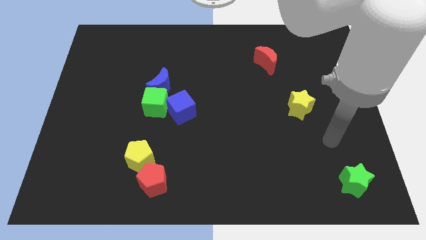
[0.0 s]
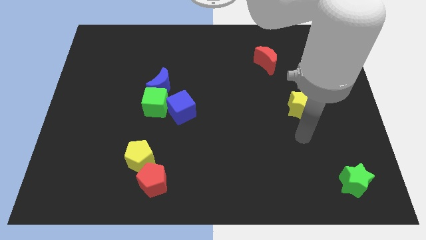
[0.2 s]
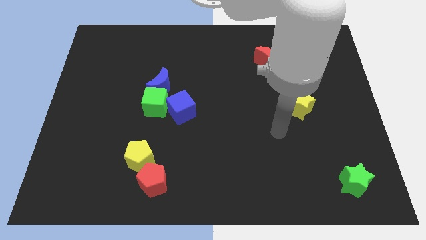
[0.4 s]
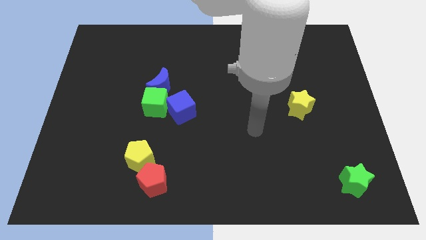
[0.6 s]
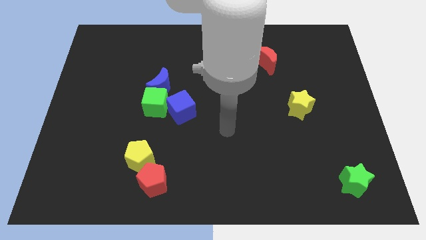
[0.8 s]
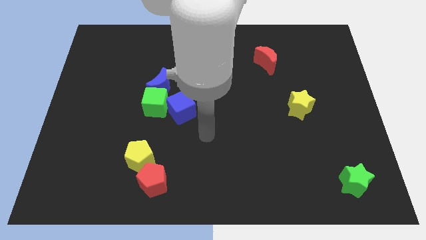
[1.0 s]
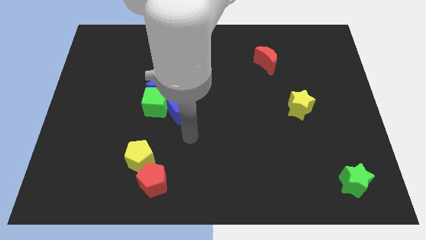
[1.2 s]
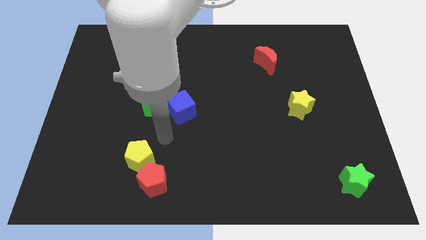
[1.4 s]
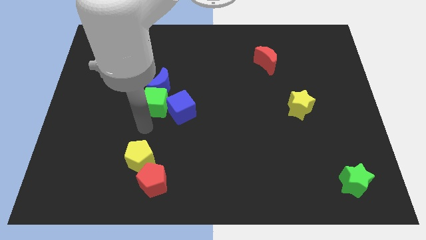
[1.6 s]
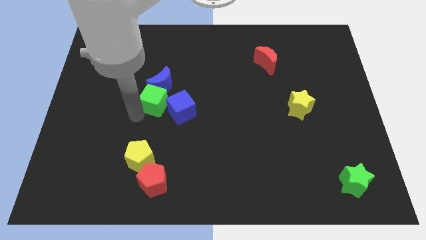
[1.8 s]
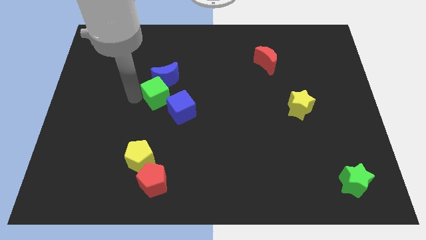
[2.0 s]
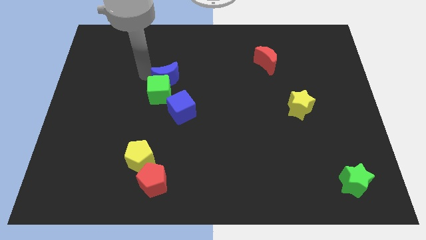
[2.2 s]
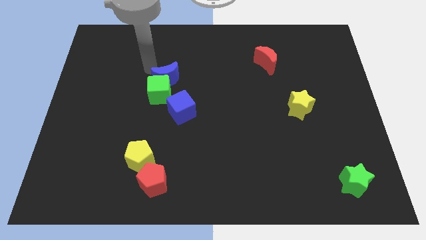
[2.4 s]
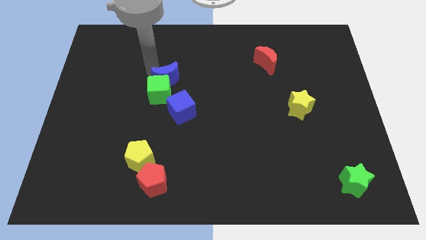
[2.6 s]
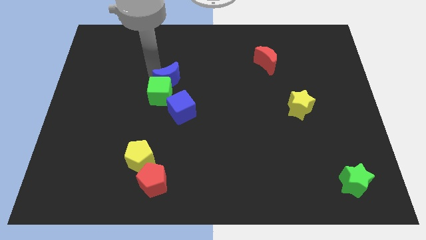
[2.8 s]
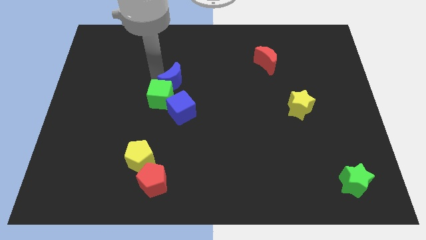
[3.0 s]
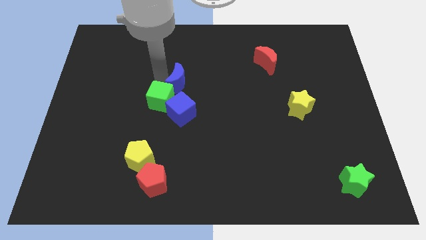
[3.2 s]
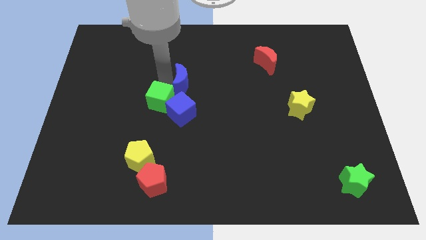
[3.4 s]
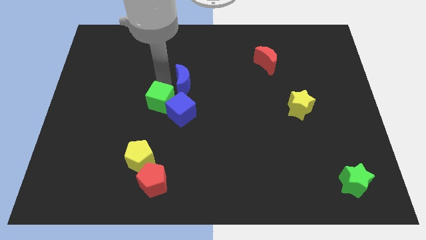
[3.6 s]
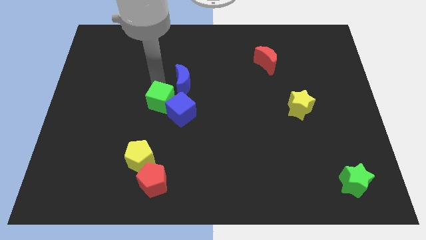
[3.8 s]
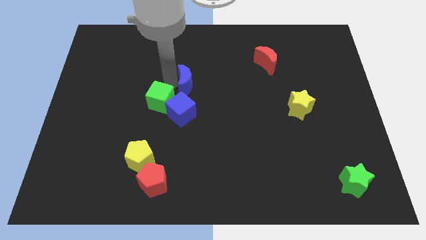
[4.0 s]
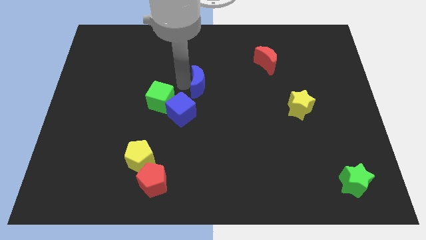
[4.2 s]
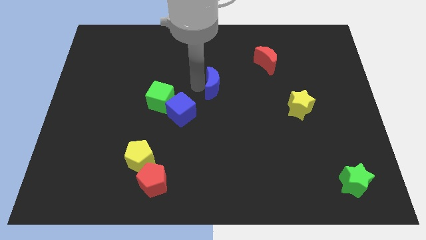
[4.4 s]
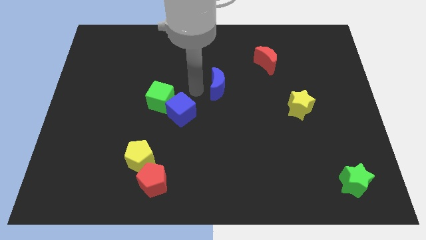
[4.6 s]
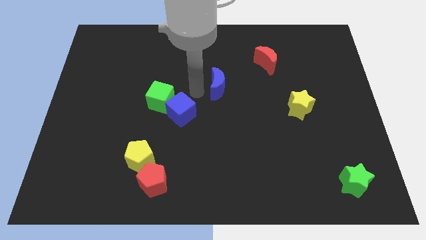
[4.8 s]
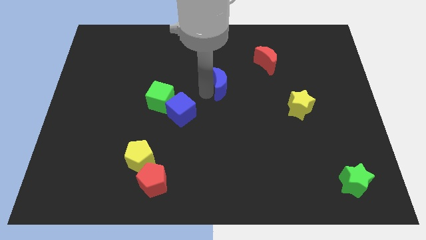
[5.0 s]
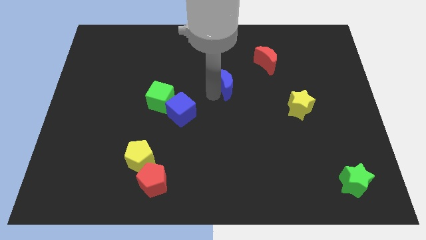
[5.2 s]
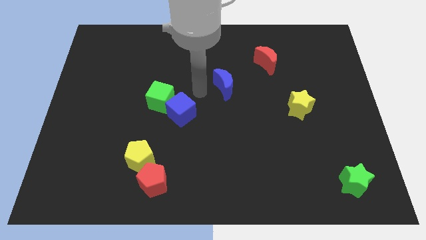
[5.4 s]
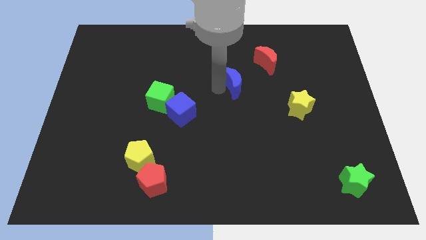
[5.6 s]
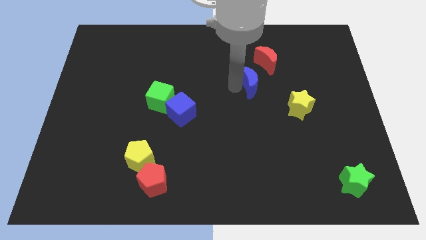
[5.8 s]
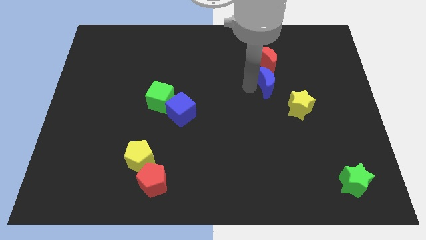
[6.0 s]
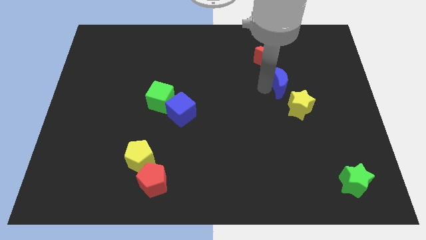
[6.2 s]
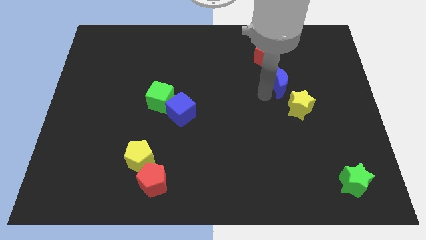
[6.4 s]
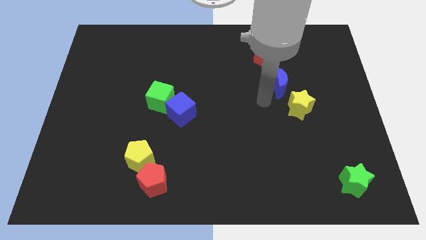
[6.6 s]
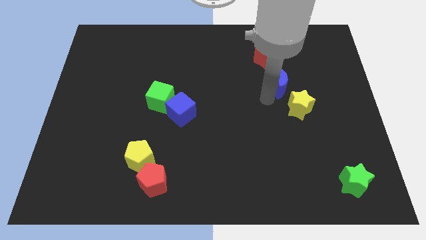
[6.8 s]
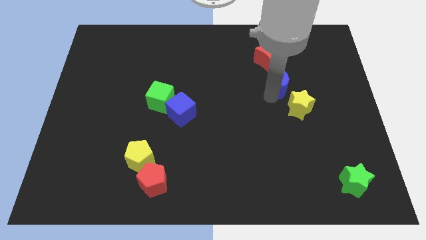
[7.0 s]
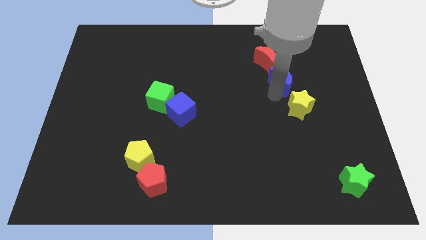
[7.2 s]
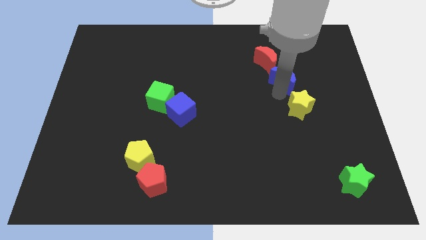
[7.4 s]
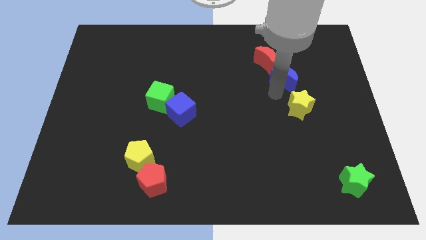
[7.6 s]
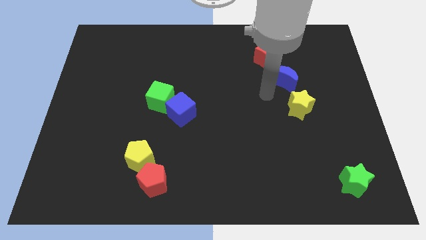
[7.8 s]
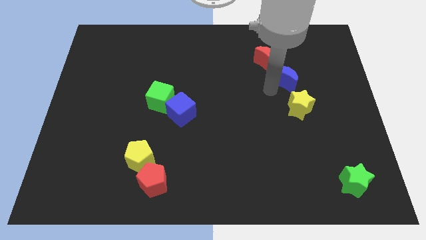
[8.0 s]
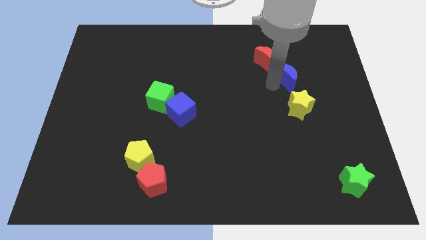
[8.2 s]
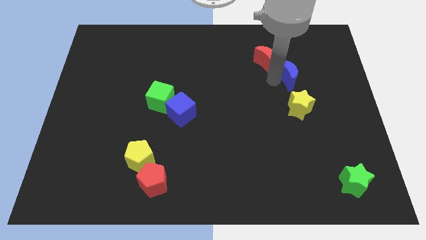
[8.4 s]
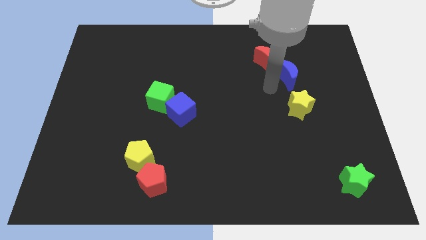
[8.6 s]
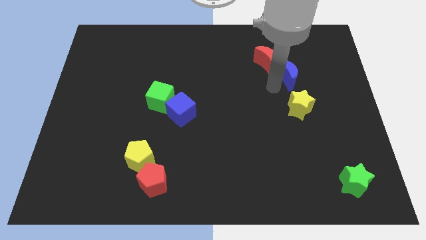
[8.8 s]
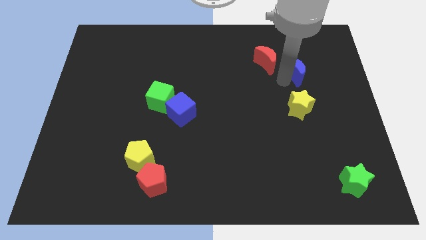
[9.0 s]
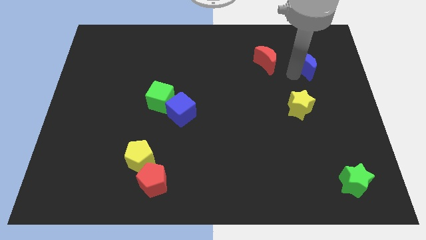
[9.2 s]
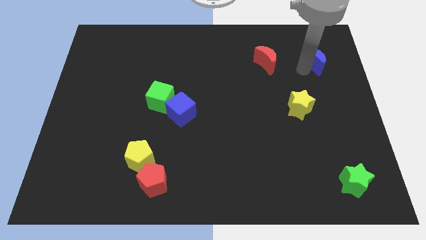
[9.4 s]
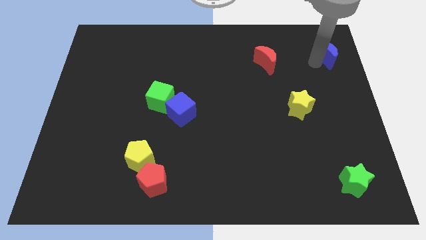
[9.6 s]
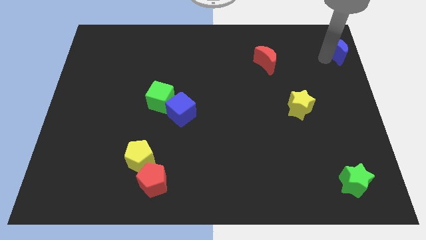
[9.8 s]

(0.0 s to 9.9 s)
move the blue moon to the top right corner

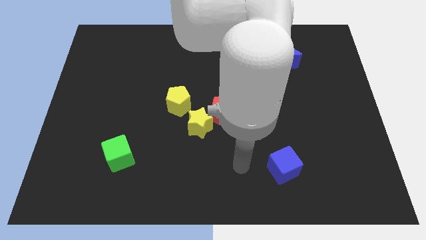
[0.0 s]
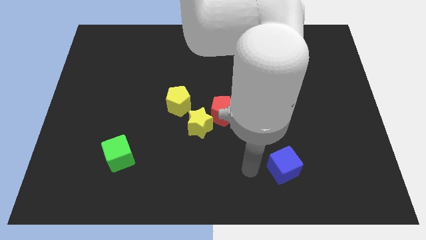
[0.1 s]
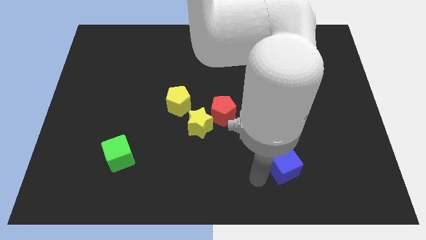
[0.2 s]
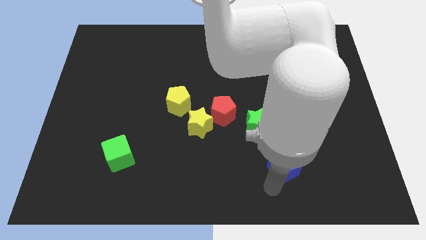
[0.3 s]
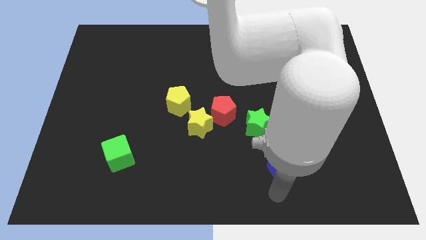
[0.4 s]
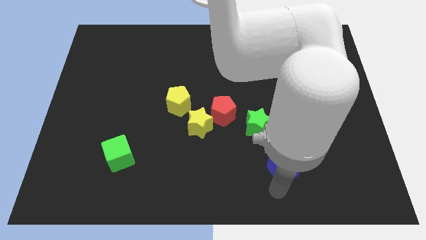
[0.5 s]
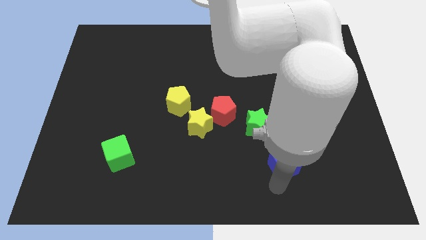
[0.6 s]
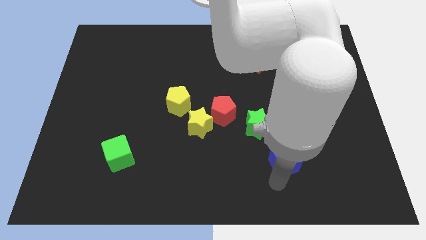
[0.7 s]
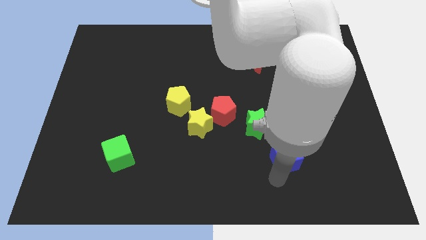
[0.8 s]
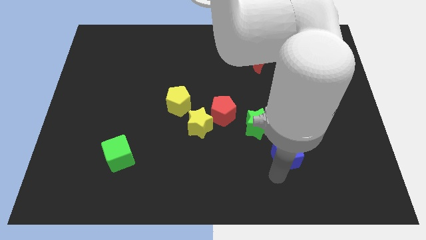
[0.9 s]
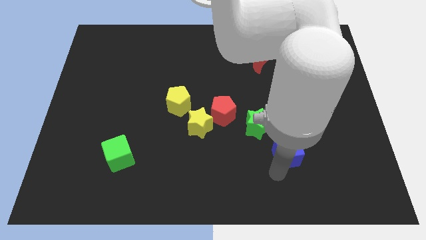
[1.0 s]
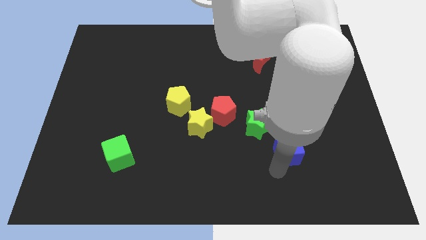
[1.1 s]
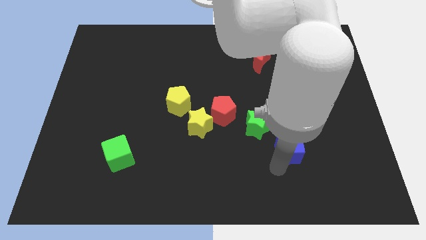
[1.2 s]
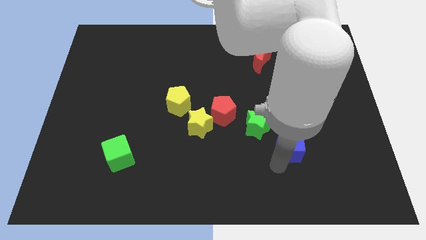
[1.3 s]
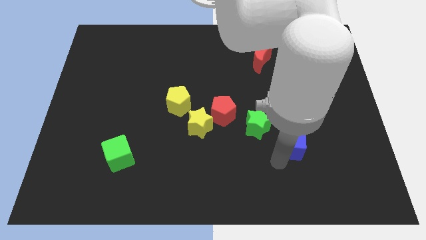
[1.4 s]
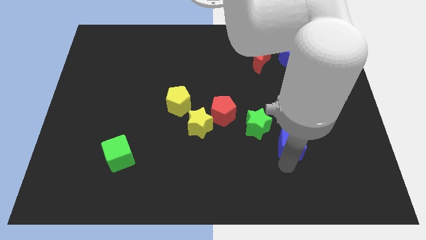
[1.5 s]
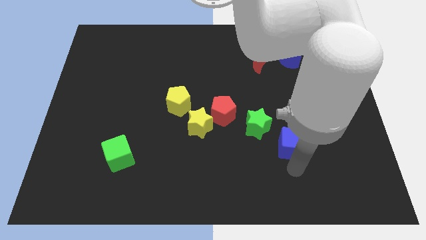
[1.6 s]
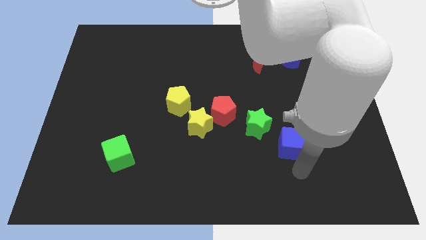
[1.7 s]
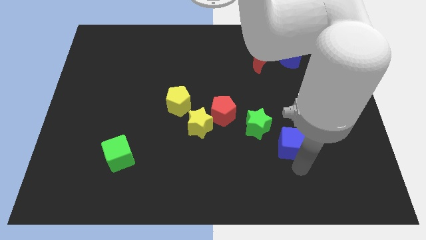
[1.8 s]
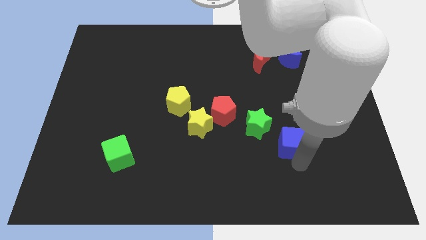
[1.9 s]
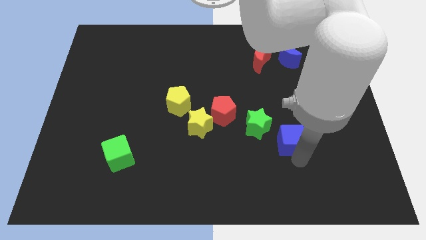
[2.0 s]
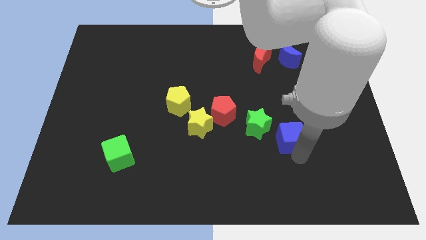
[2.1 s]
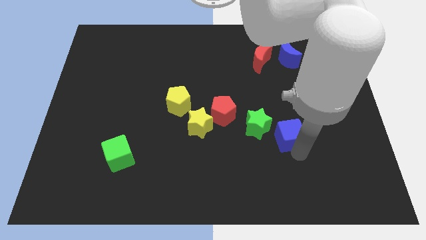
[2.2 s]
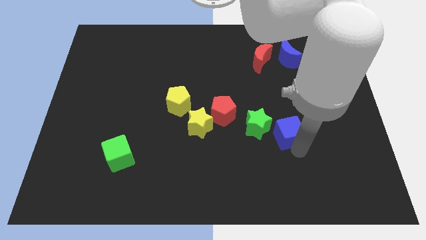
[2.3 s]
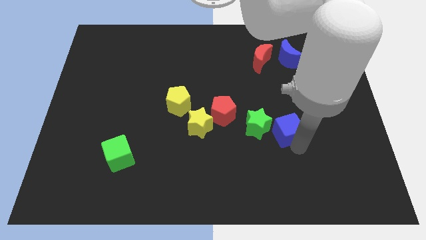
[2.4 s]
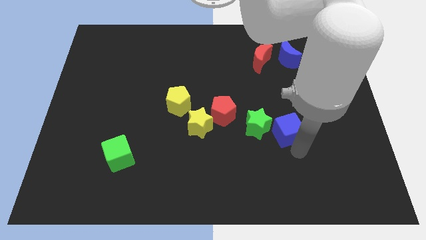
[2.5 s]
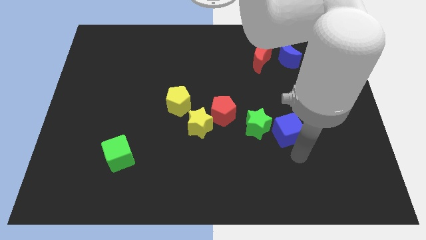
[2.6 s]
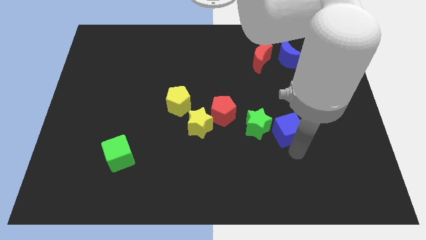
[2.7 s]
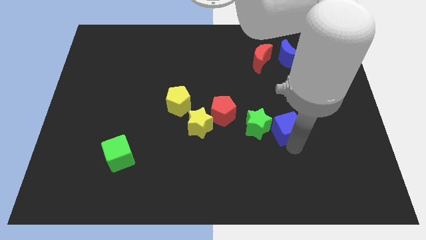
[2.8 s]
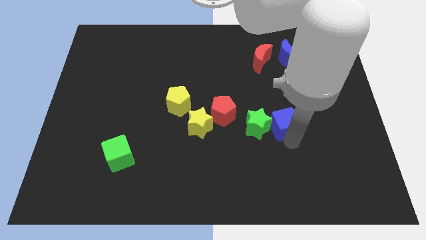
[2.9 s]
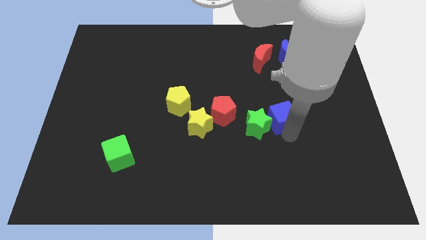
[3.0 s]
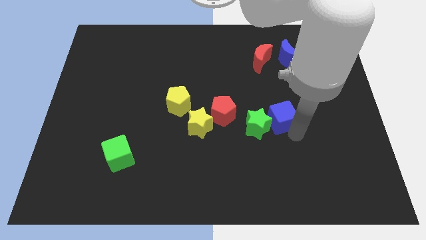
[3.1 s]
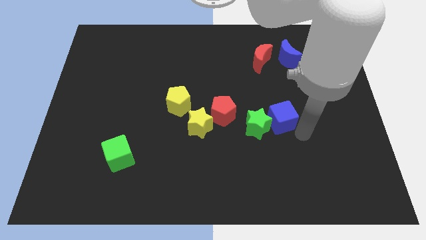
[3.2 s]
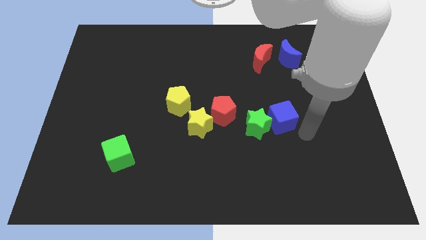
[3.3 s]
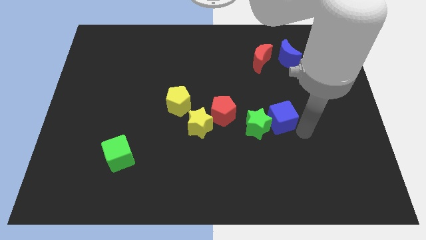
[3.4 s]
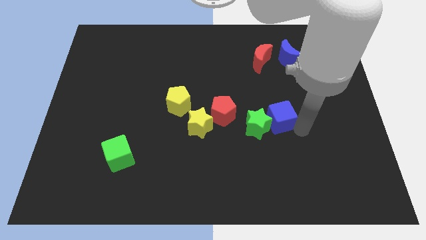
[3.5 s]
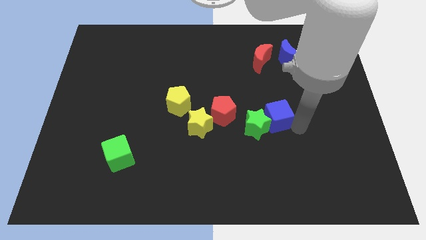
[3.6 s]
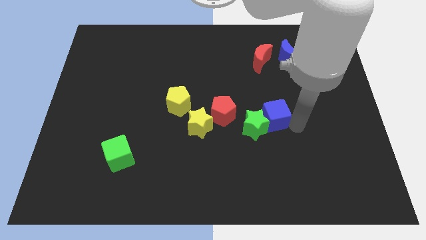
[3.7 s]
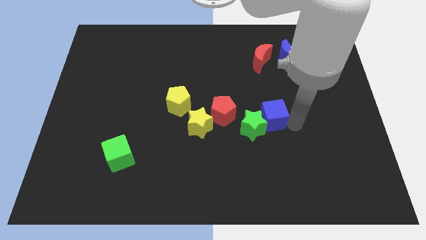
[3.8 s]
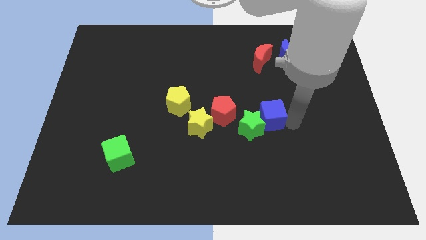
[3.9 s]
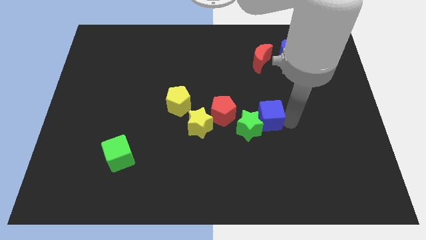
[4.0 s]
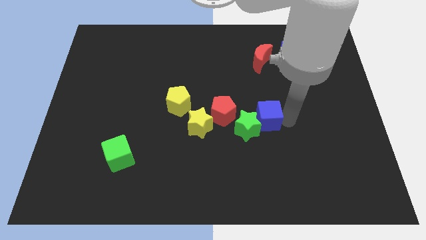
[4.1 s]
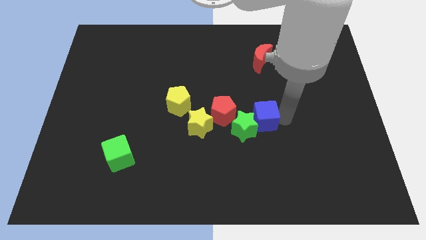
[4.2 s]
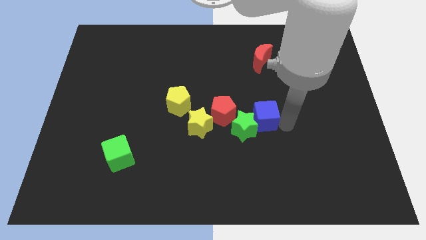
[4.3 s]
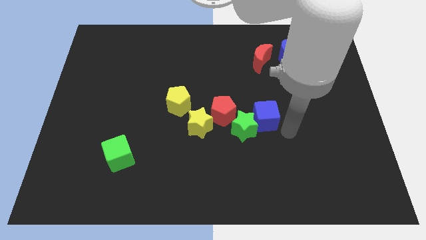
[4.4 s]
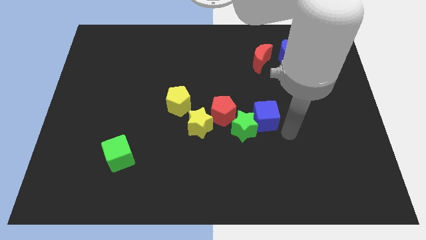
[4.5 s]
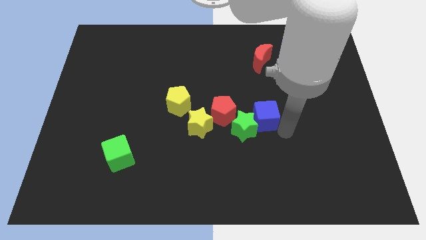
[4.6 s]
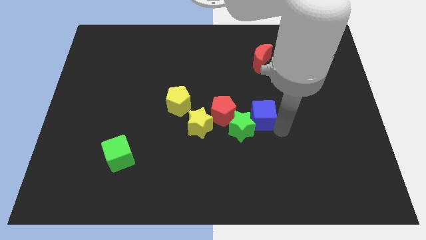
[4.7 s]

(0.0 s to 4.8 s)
push the blue cube to the center of the board
